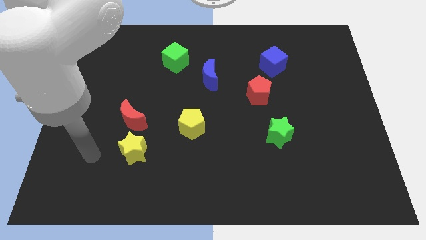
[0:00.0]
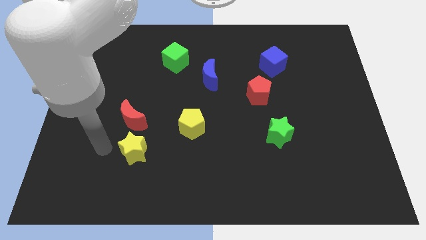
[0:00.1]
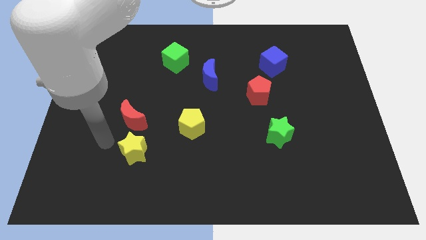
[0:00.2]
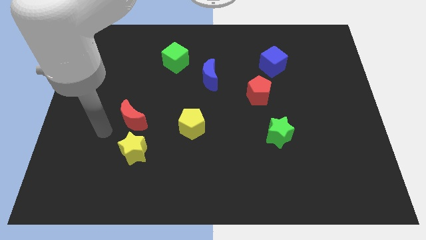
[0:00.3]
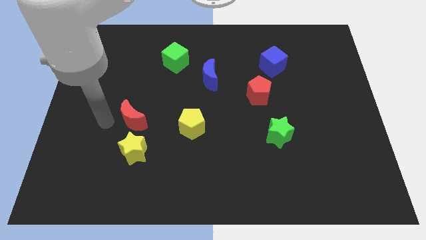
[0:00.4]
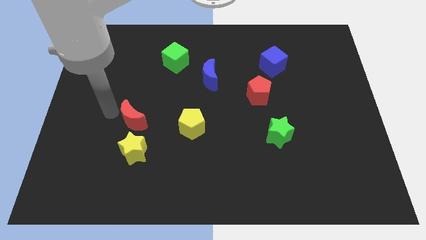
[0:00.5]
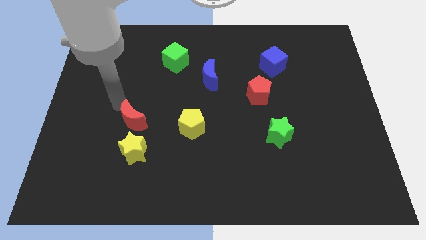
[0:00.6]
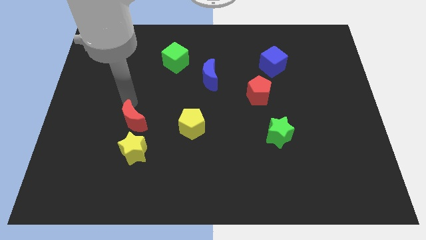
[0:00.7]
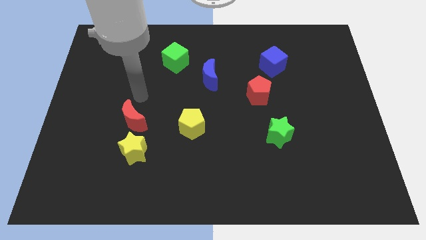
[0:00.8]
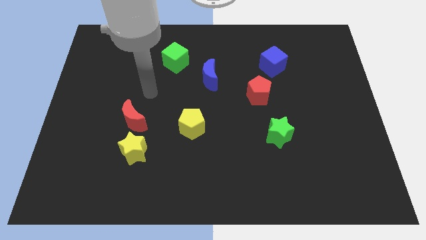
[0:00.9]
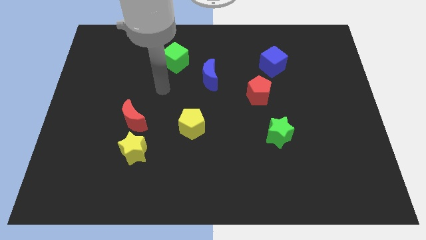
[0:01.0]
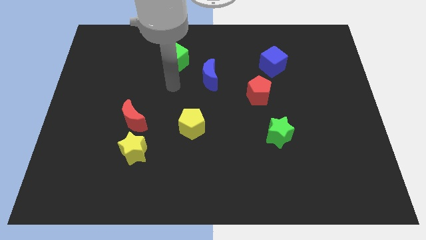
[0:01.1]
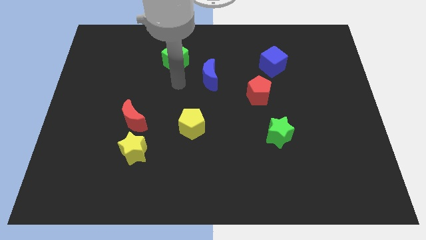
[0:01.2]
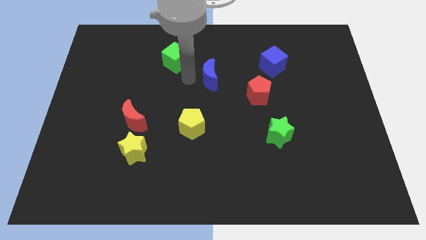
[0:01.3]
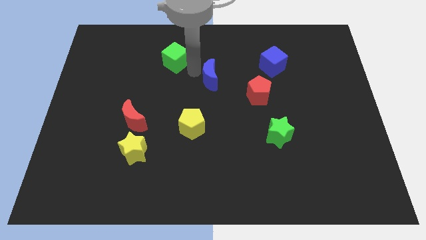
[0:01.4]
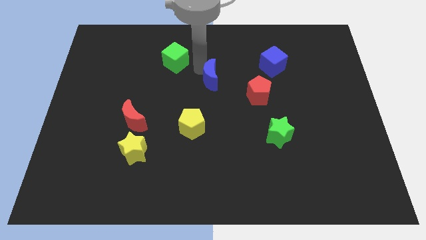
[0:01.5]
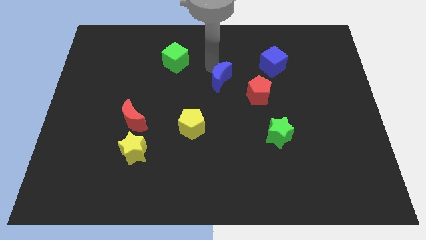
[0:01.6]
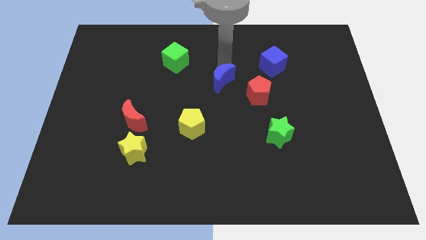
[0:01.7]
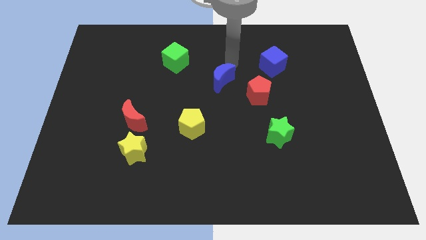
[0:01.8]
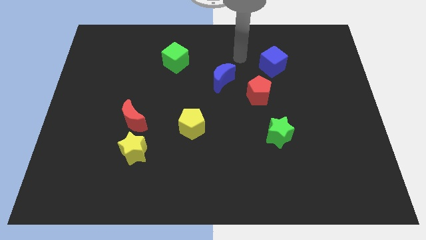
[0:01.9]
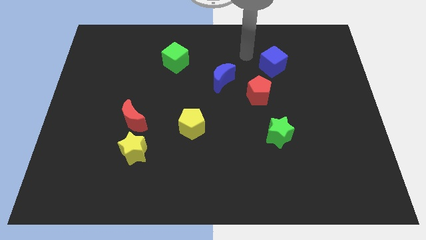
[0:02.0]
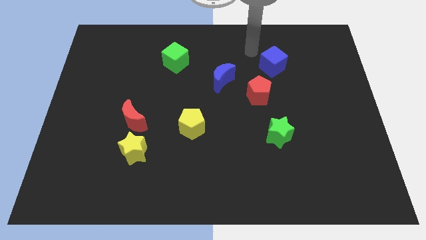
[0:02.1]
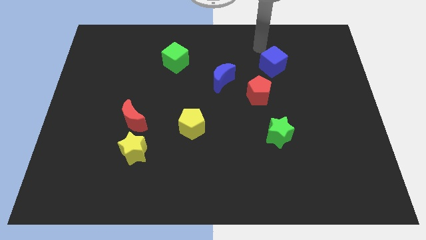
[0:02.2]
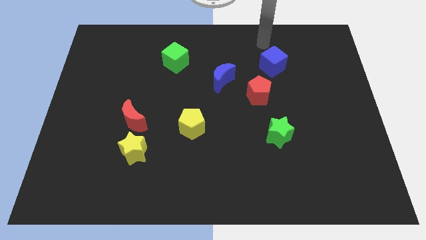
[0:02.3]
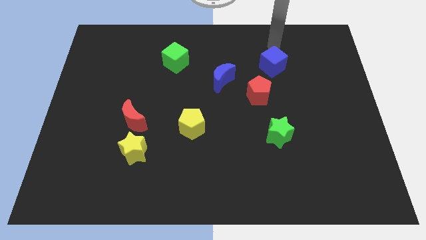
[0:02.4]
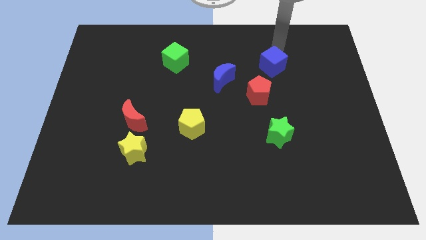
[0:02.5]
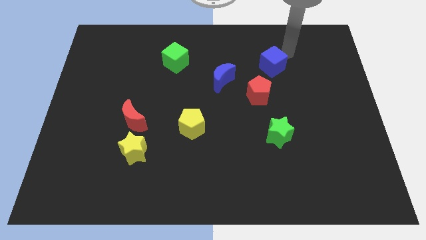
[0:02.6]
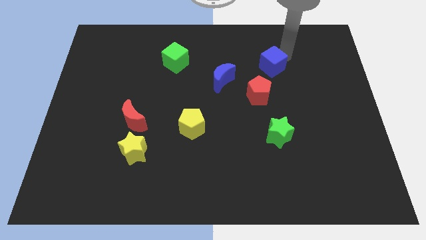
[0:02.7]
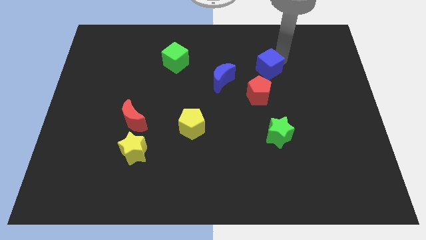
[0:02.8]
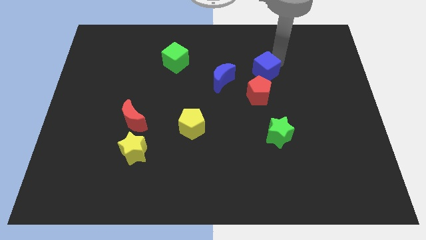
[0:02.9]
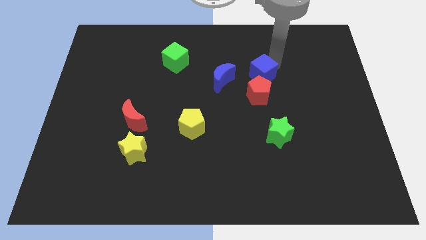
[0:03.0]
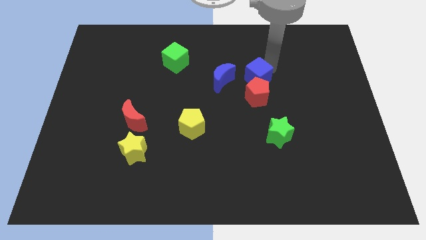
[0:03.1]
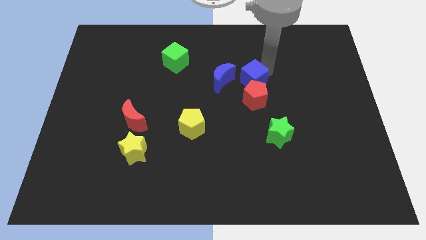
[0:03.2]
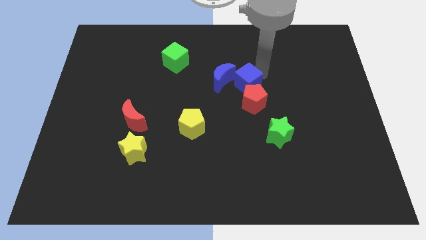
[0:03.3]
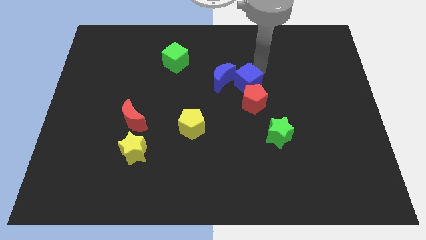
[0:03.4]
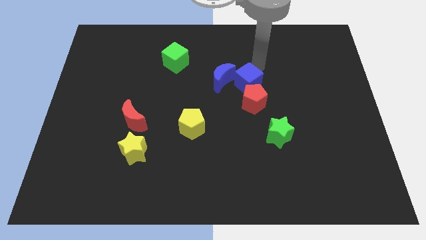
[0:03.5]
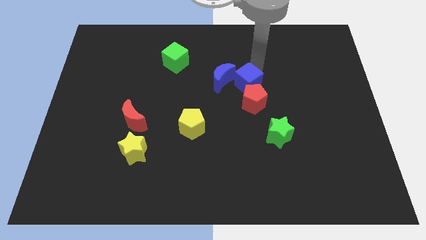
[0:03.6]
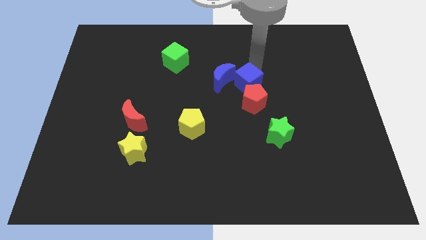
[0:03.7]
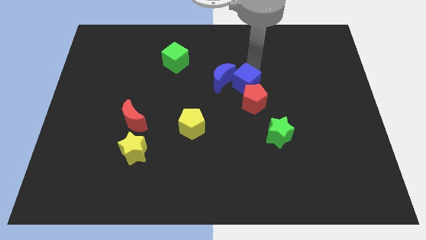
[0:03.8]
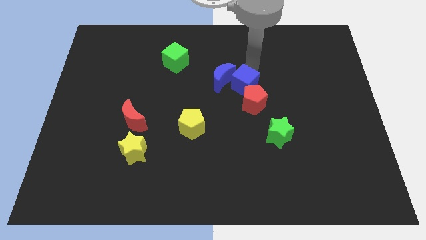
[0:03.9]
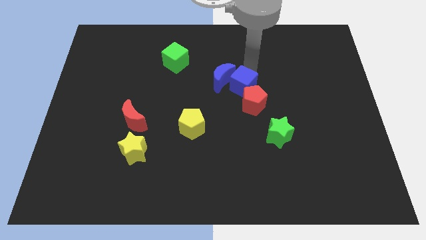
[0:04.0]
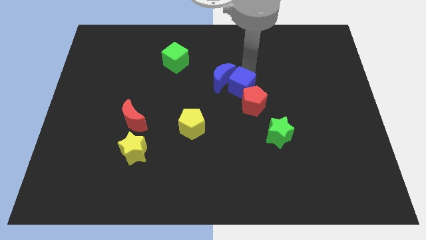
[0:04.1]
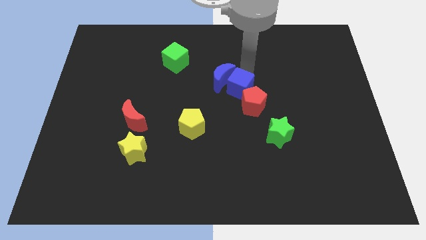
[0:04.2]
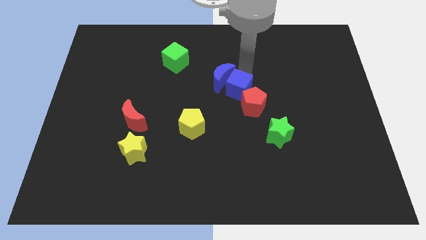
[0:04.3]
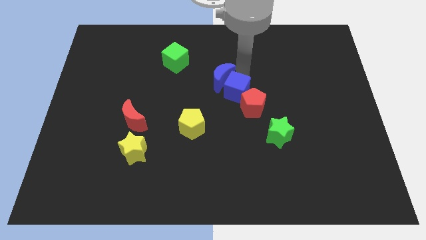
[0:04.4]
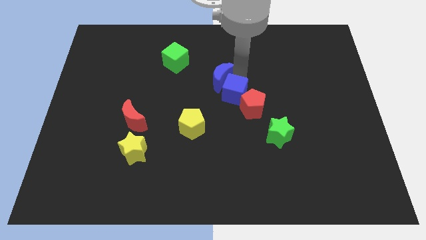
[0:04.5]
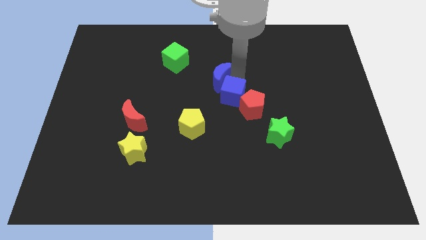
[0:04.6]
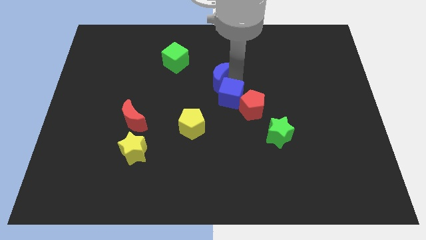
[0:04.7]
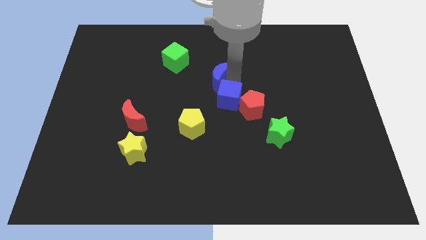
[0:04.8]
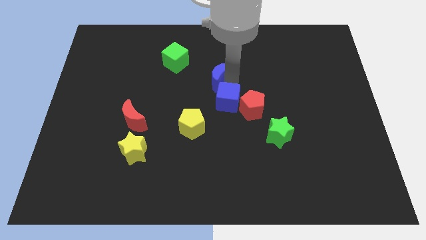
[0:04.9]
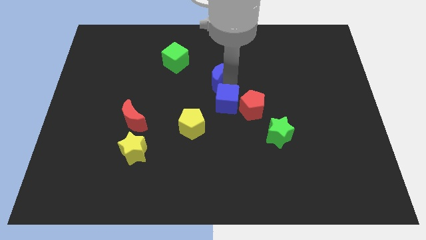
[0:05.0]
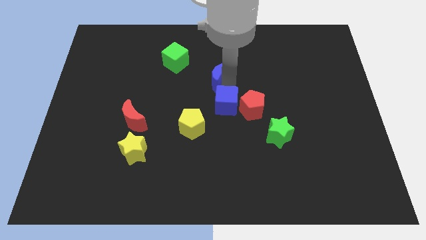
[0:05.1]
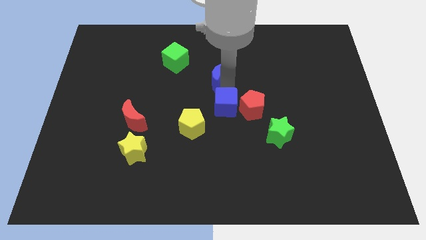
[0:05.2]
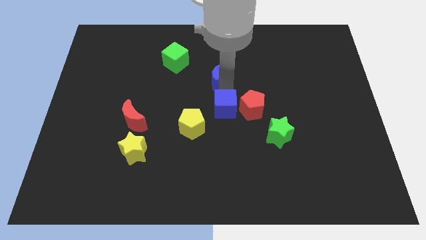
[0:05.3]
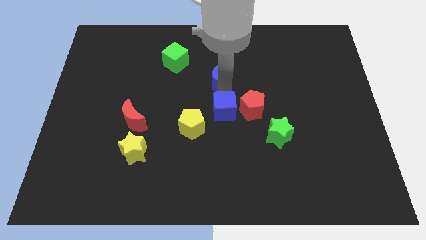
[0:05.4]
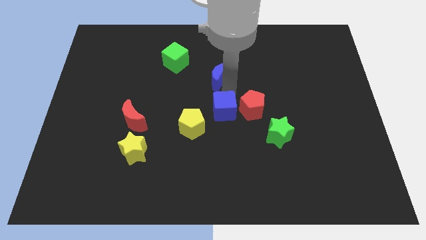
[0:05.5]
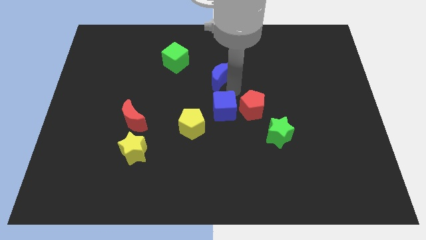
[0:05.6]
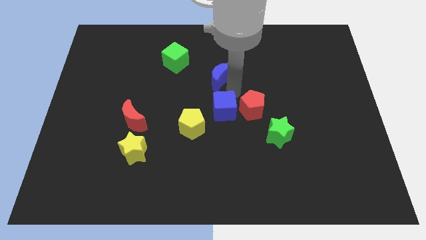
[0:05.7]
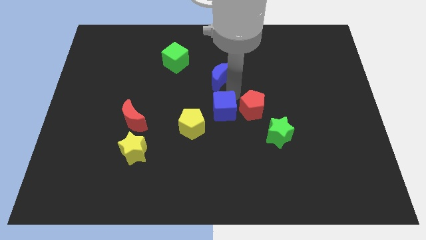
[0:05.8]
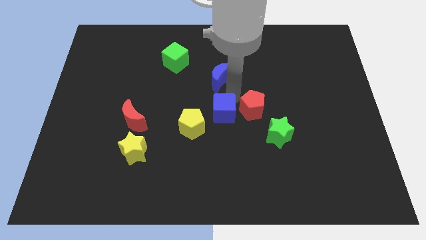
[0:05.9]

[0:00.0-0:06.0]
push the blue cube downwards and then left

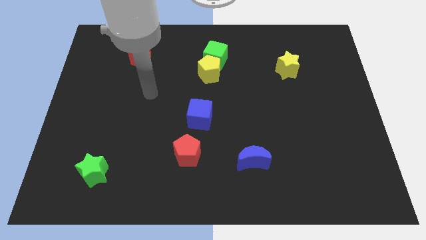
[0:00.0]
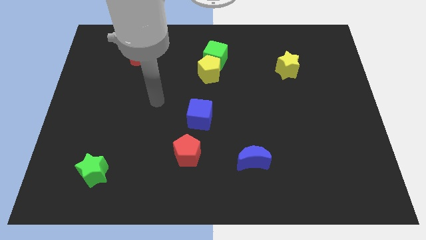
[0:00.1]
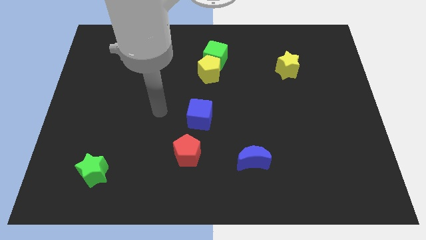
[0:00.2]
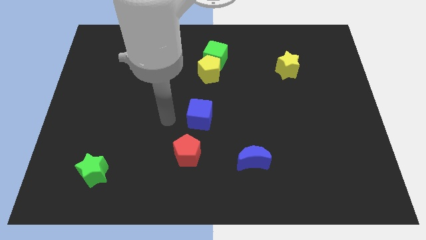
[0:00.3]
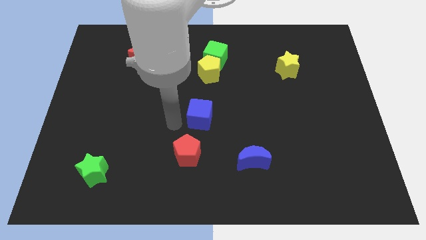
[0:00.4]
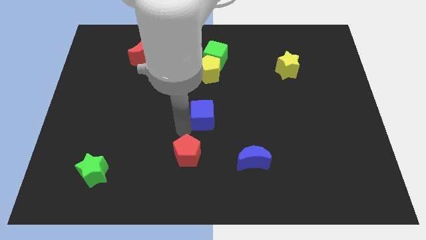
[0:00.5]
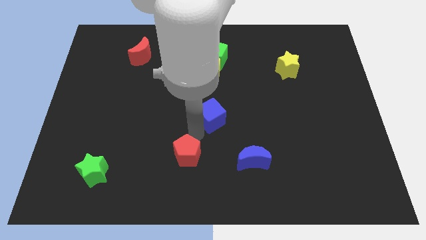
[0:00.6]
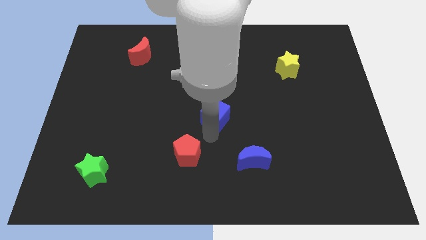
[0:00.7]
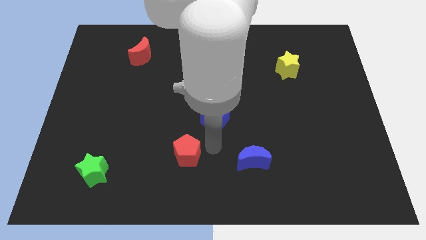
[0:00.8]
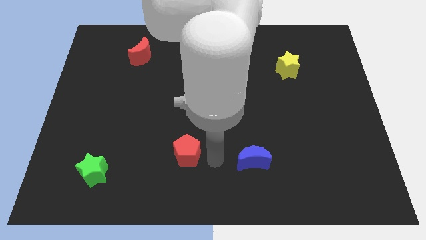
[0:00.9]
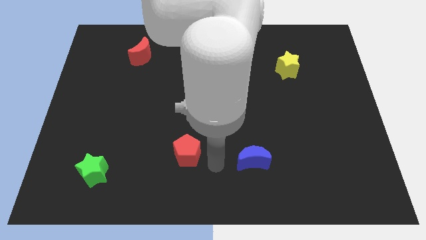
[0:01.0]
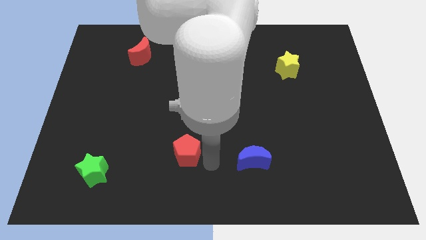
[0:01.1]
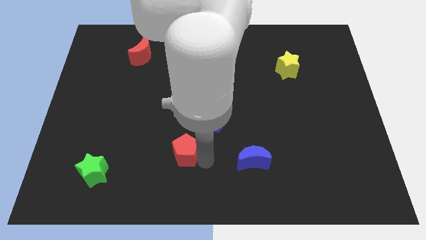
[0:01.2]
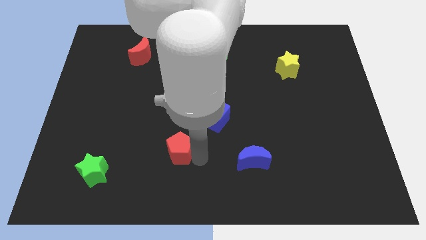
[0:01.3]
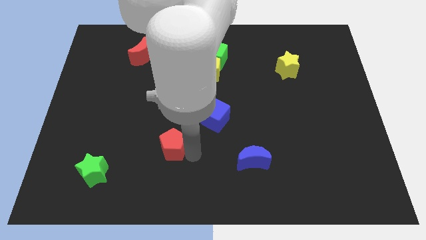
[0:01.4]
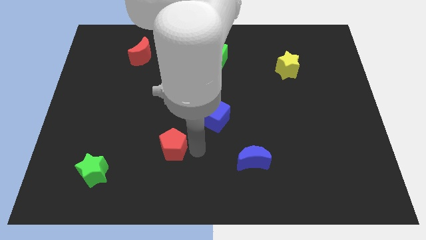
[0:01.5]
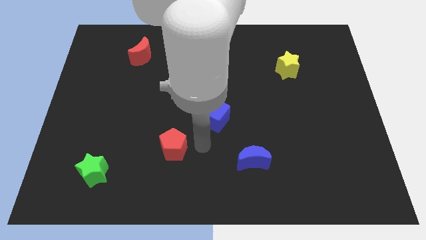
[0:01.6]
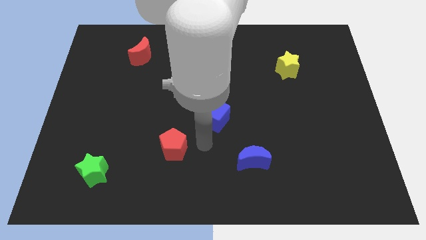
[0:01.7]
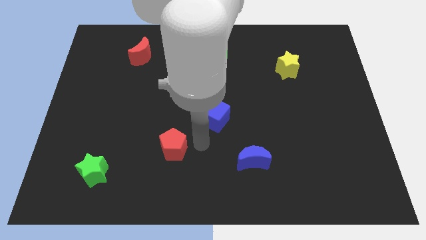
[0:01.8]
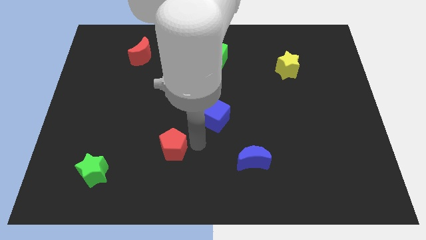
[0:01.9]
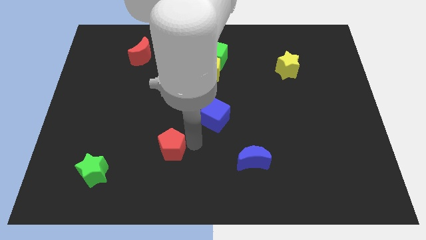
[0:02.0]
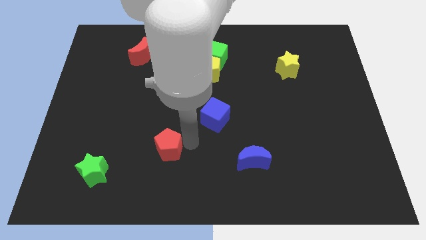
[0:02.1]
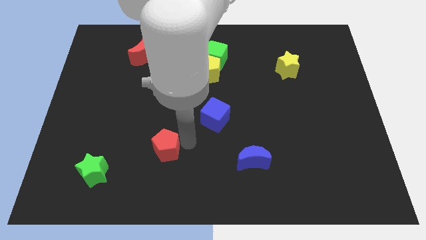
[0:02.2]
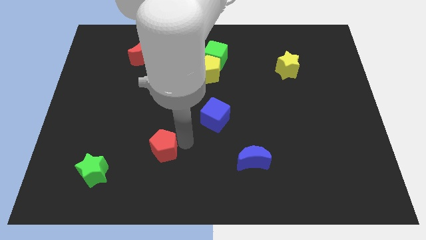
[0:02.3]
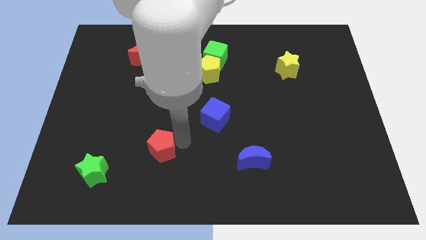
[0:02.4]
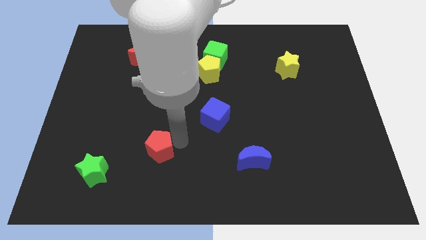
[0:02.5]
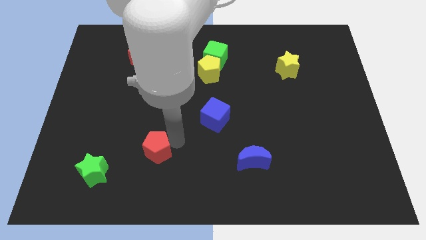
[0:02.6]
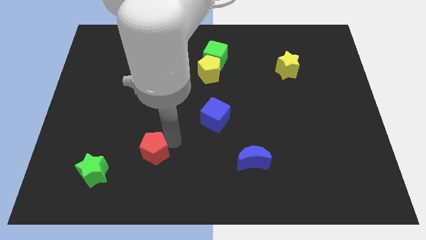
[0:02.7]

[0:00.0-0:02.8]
slightly push the red pentagon to the left
